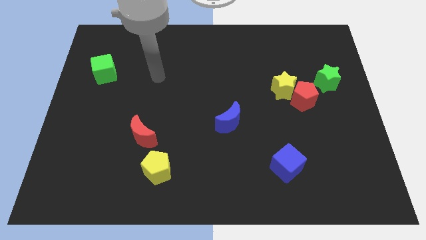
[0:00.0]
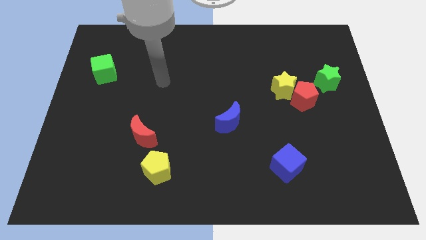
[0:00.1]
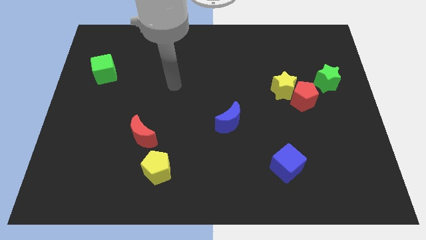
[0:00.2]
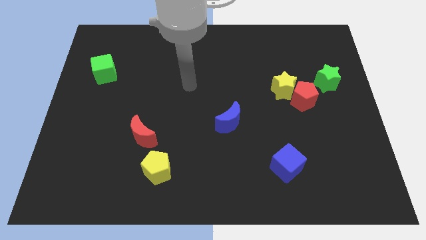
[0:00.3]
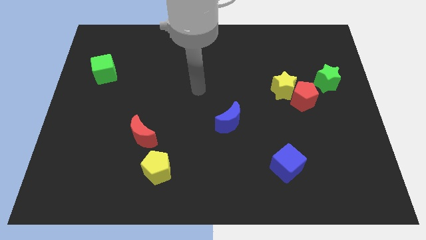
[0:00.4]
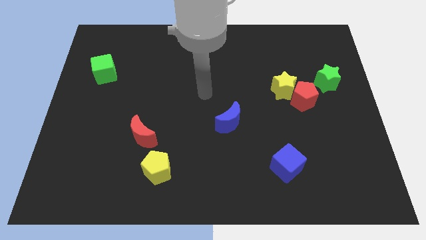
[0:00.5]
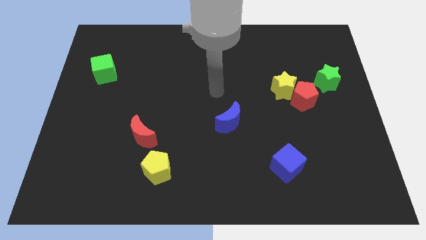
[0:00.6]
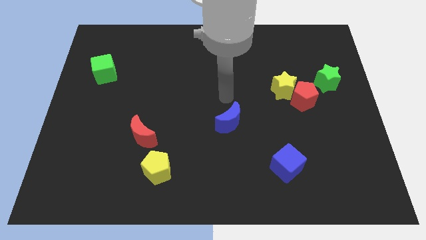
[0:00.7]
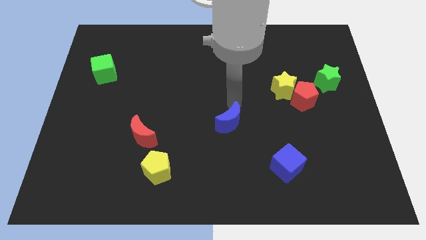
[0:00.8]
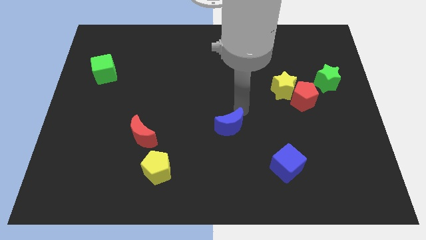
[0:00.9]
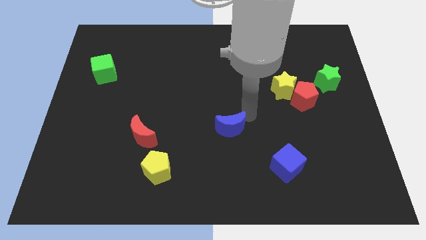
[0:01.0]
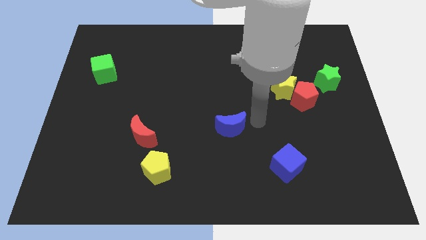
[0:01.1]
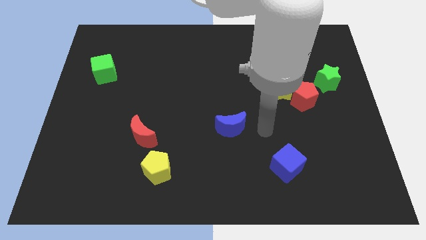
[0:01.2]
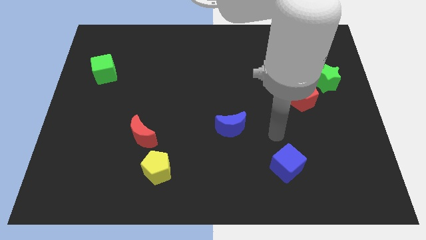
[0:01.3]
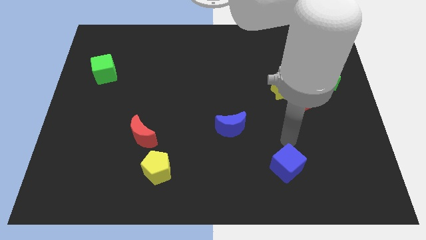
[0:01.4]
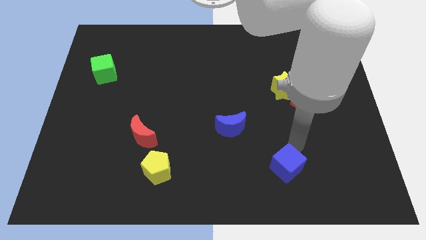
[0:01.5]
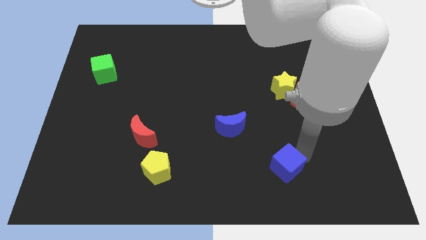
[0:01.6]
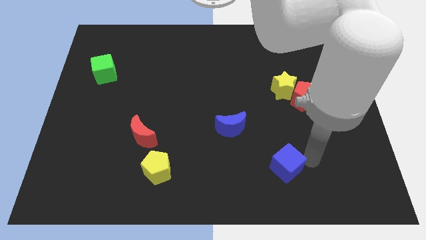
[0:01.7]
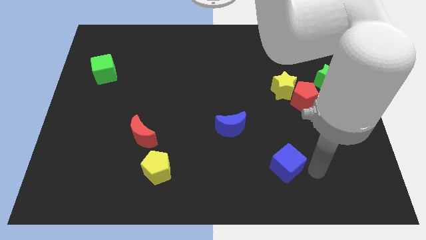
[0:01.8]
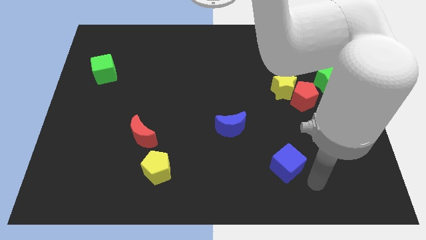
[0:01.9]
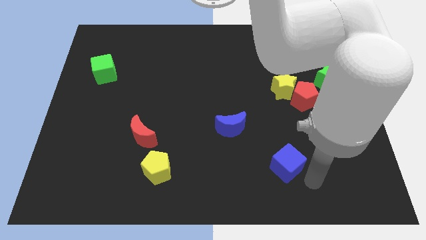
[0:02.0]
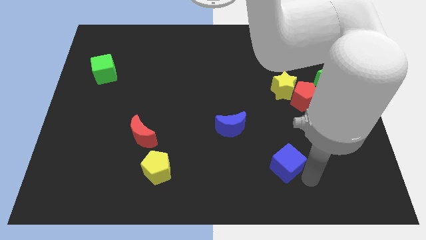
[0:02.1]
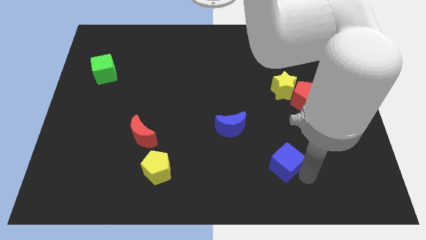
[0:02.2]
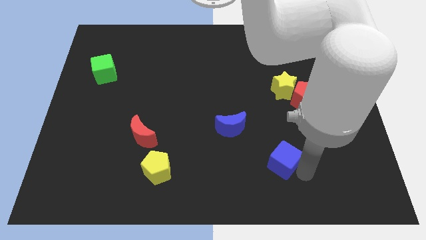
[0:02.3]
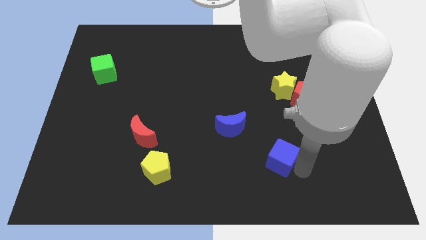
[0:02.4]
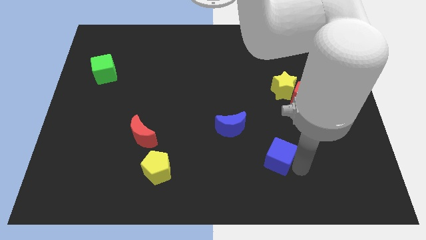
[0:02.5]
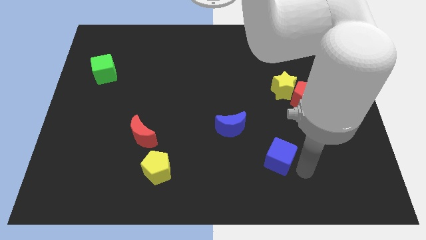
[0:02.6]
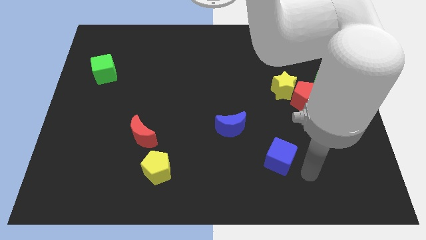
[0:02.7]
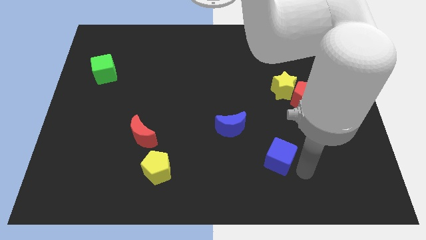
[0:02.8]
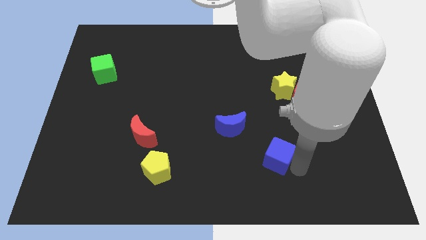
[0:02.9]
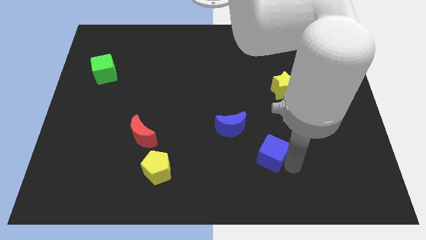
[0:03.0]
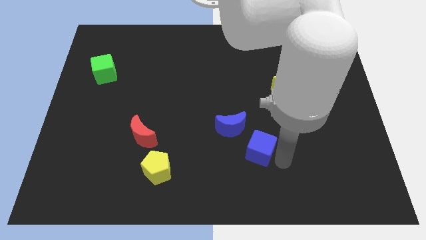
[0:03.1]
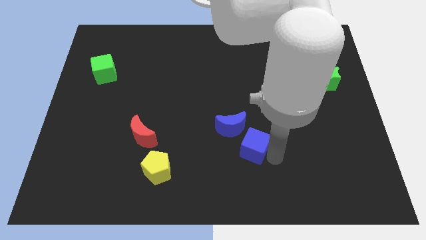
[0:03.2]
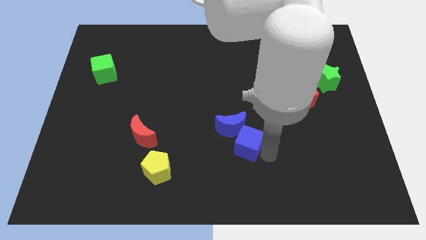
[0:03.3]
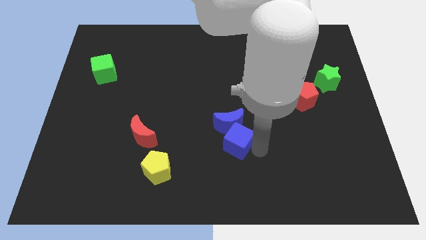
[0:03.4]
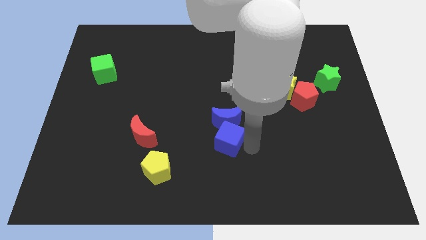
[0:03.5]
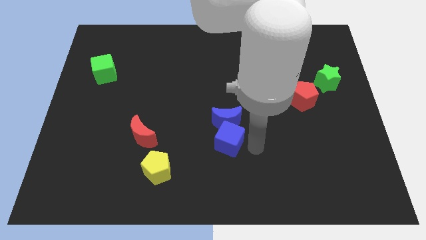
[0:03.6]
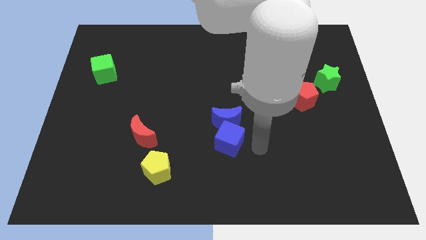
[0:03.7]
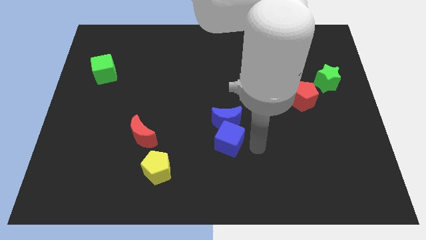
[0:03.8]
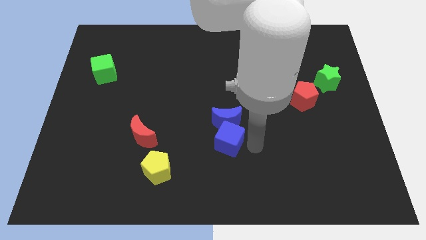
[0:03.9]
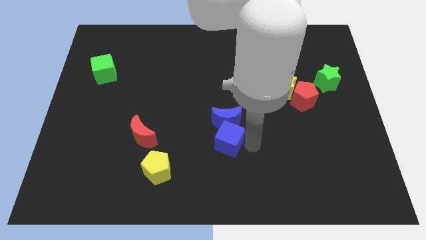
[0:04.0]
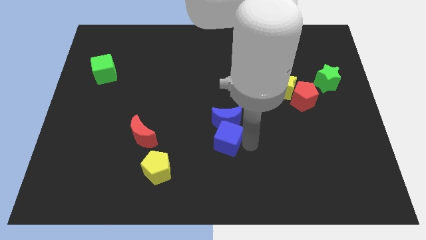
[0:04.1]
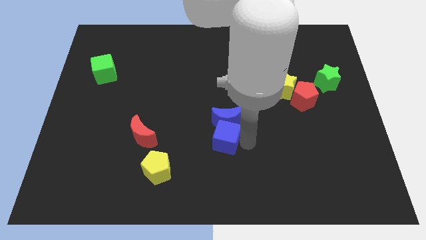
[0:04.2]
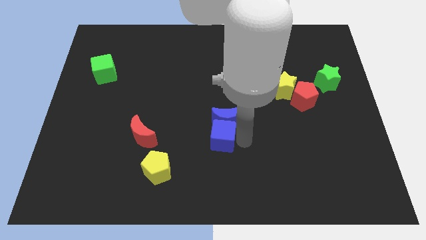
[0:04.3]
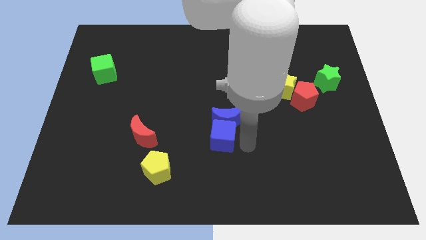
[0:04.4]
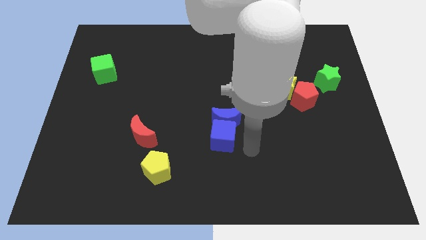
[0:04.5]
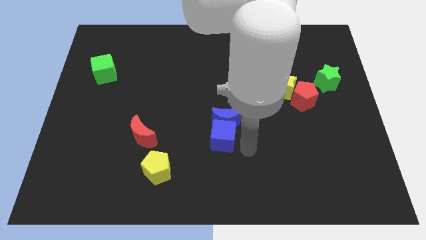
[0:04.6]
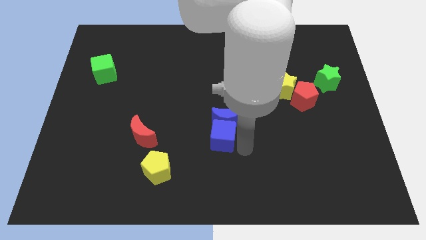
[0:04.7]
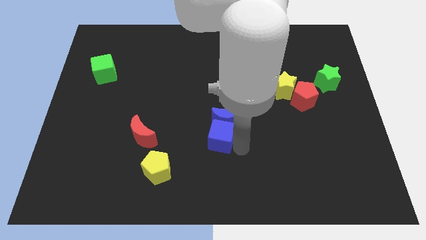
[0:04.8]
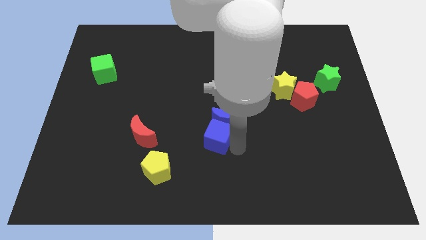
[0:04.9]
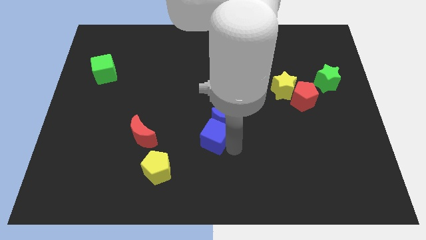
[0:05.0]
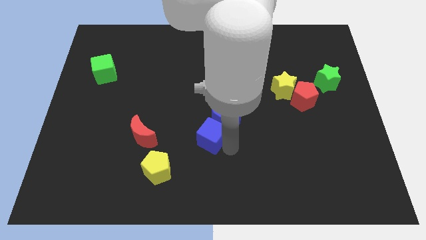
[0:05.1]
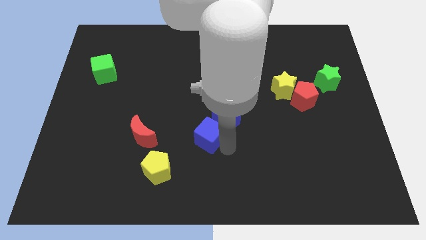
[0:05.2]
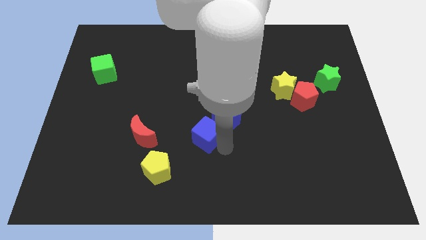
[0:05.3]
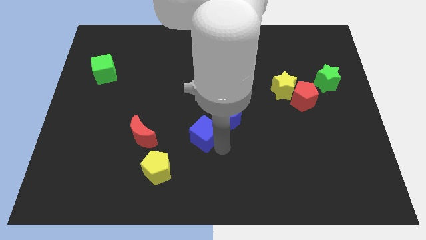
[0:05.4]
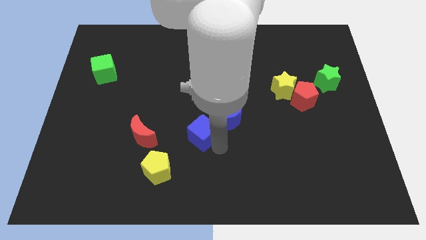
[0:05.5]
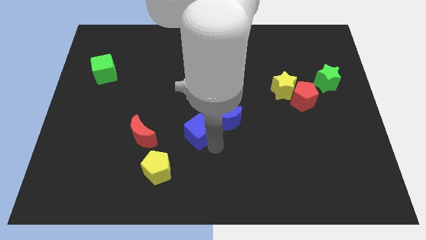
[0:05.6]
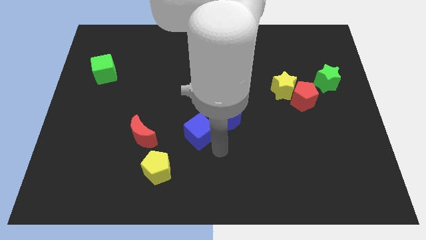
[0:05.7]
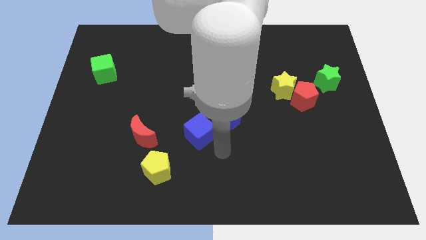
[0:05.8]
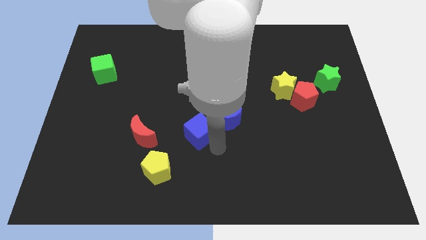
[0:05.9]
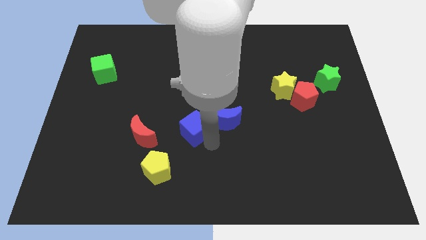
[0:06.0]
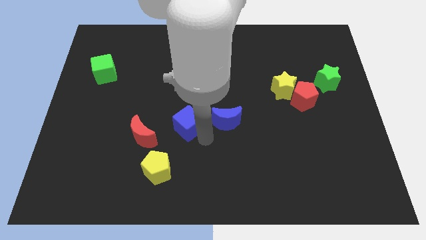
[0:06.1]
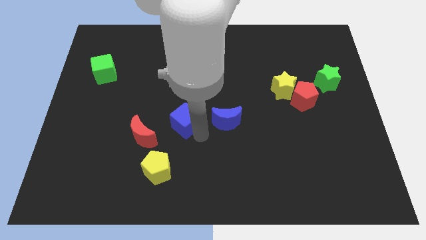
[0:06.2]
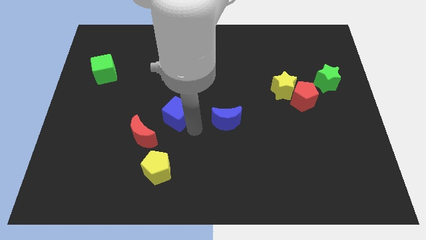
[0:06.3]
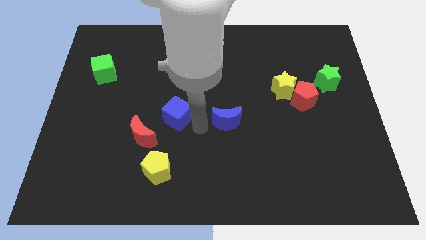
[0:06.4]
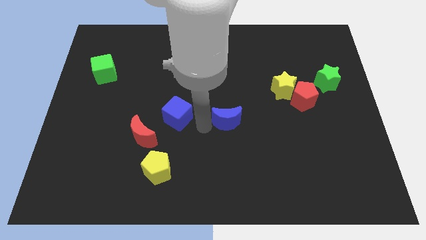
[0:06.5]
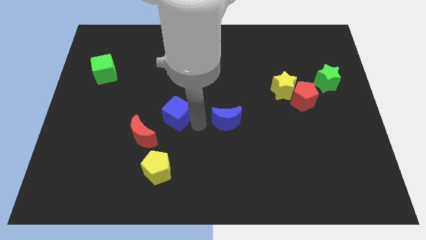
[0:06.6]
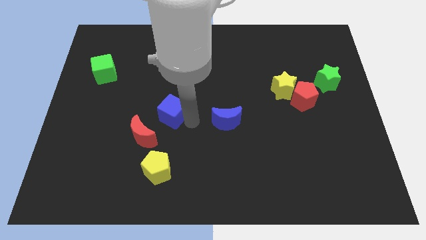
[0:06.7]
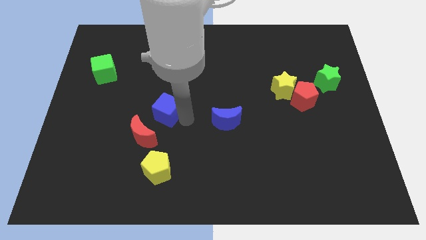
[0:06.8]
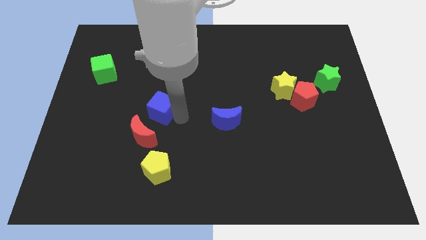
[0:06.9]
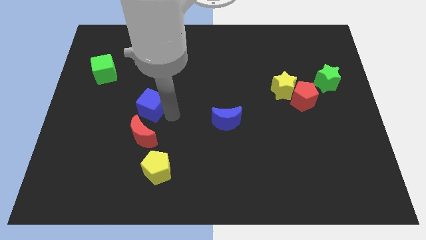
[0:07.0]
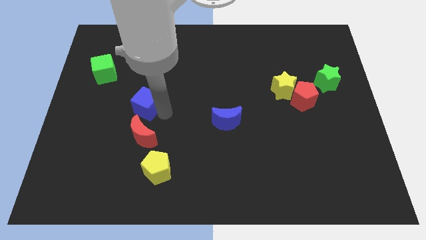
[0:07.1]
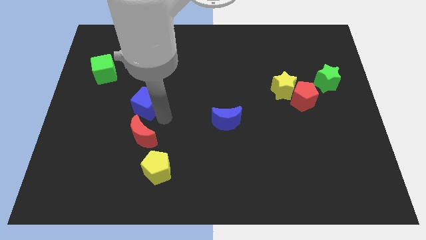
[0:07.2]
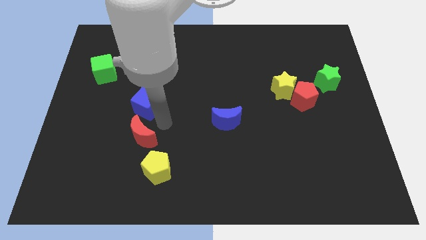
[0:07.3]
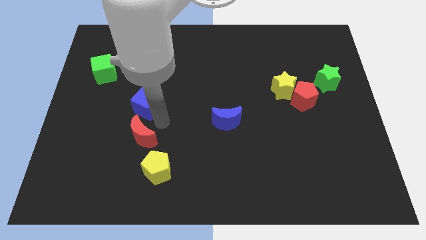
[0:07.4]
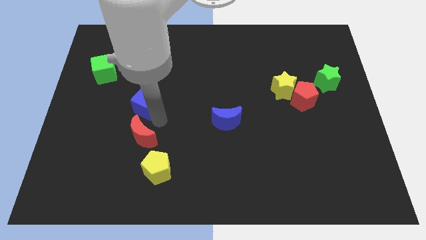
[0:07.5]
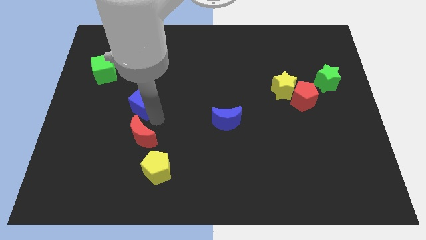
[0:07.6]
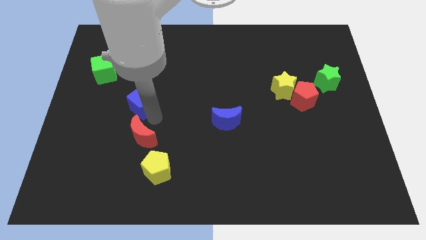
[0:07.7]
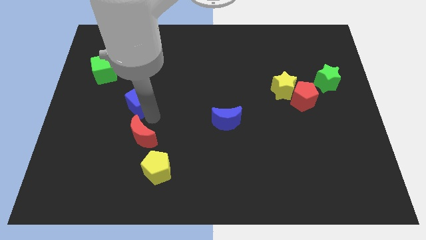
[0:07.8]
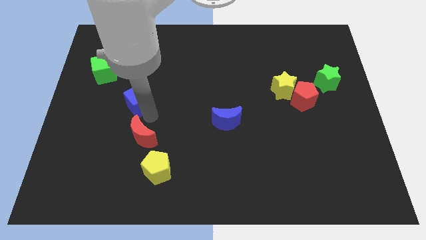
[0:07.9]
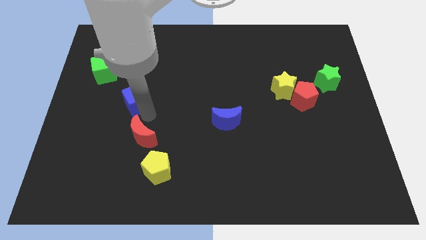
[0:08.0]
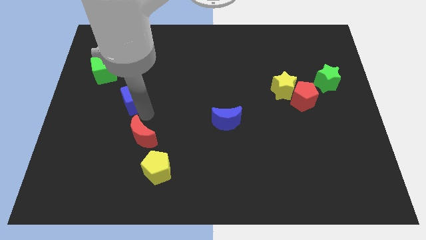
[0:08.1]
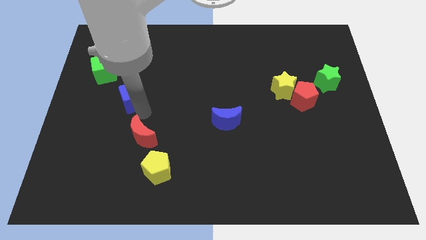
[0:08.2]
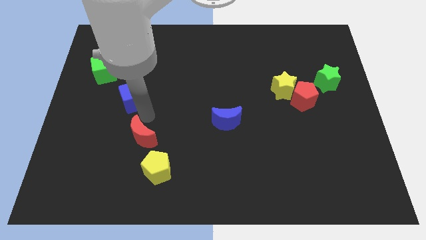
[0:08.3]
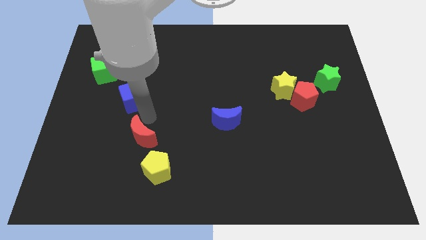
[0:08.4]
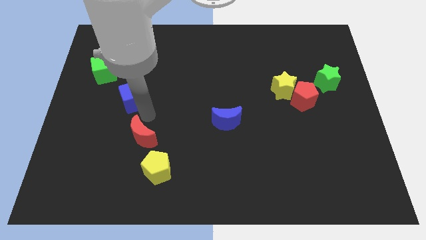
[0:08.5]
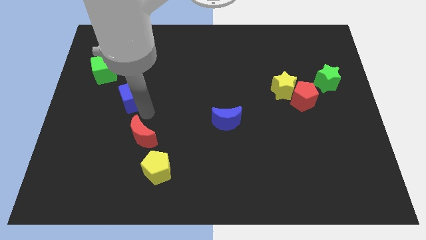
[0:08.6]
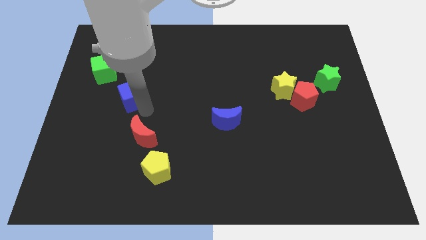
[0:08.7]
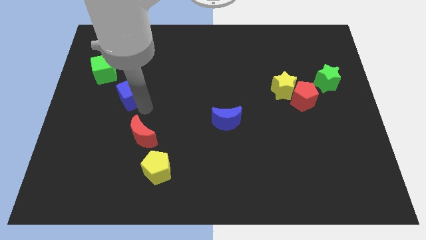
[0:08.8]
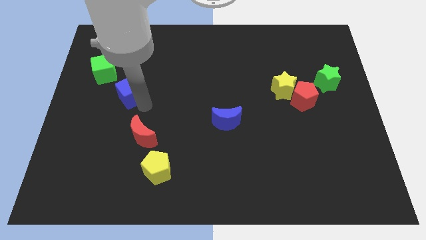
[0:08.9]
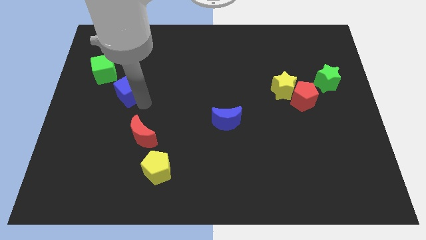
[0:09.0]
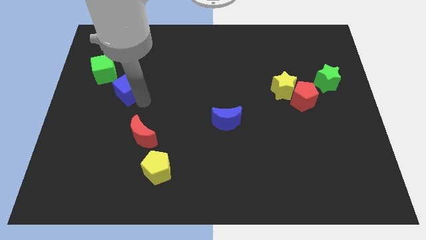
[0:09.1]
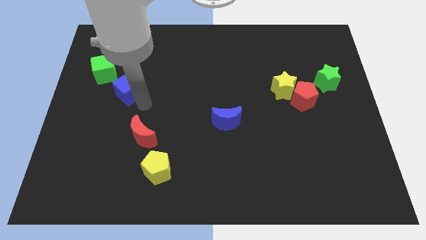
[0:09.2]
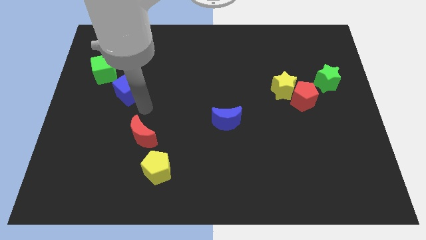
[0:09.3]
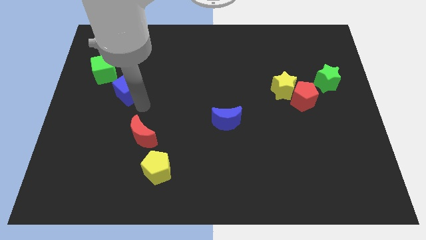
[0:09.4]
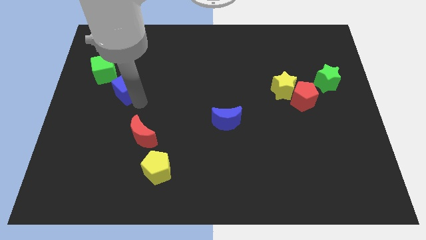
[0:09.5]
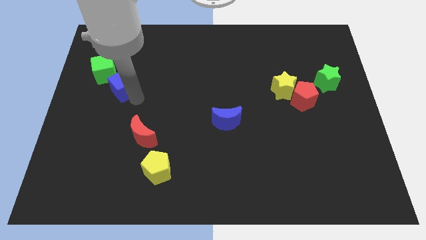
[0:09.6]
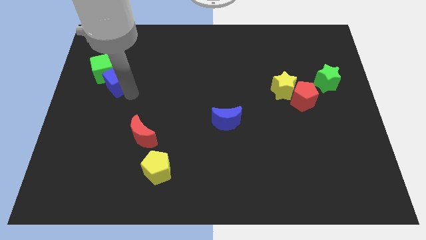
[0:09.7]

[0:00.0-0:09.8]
push the blue cube next to the green cube
